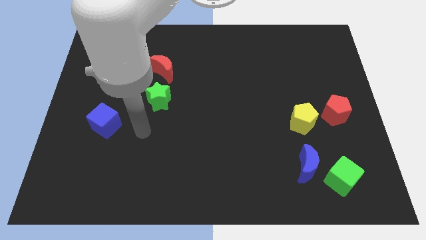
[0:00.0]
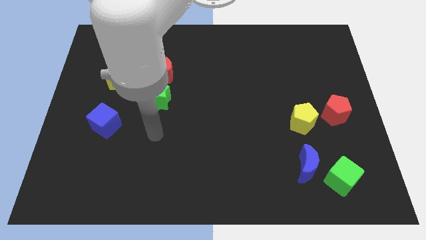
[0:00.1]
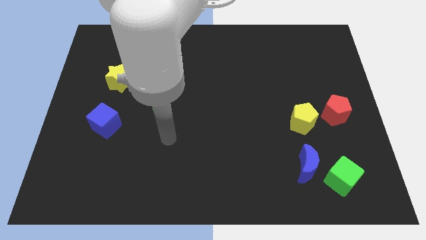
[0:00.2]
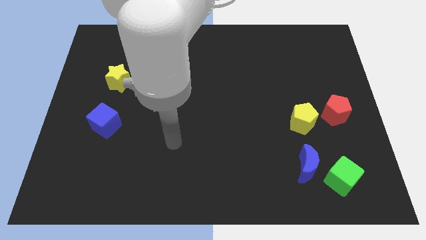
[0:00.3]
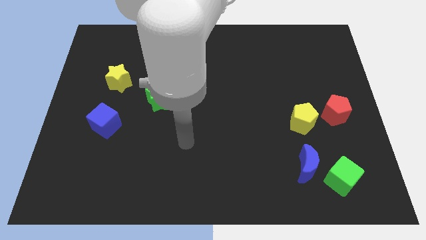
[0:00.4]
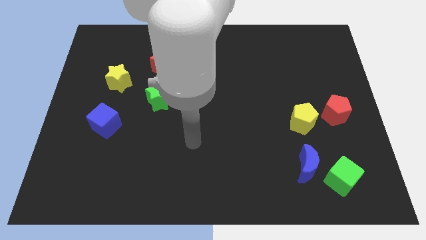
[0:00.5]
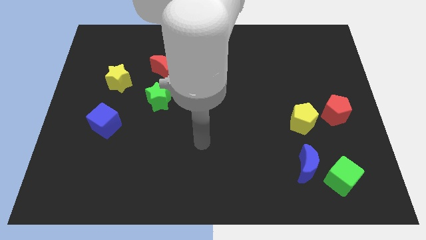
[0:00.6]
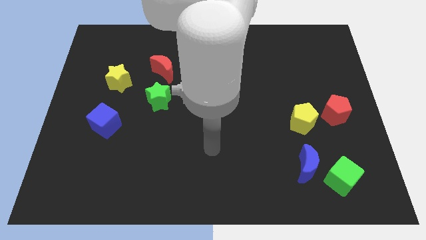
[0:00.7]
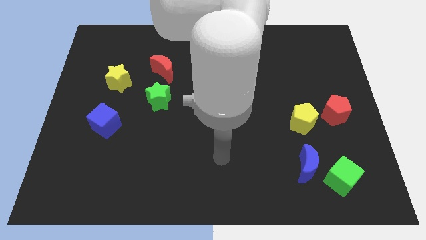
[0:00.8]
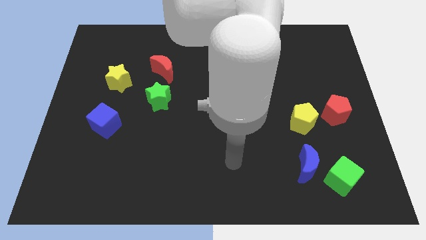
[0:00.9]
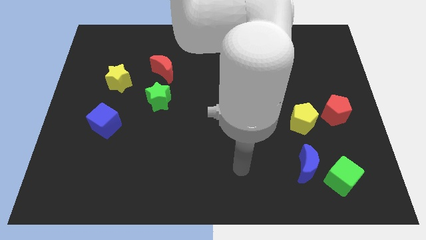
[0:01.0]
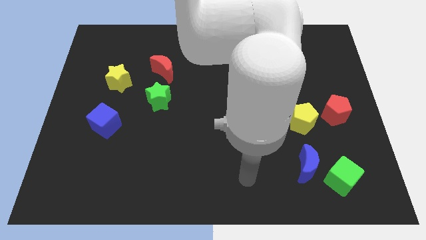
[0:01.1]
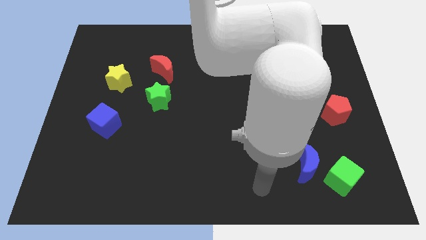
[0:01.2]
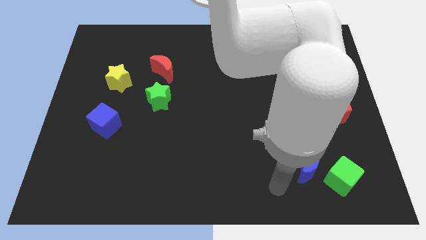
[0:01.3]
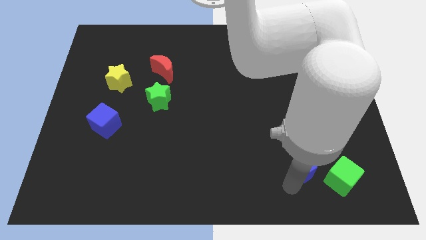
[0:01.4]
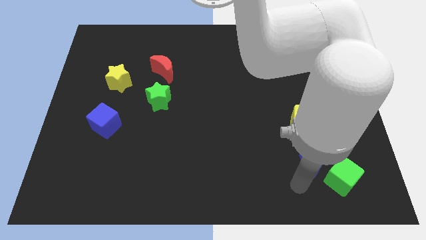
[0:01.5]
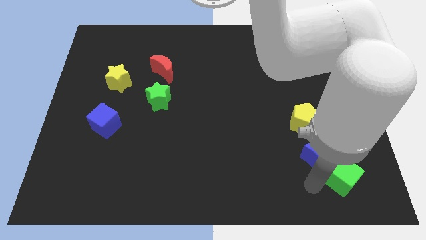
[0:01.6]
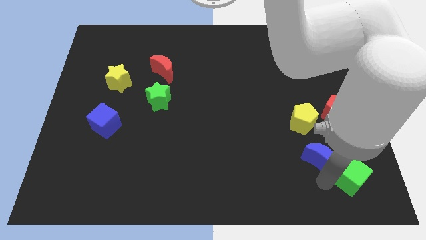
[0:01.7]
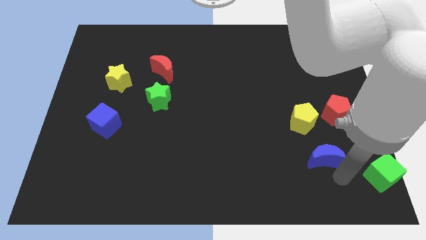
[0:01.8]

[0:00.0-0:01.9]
pull the blue moon apart from the green cube

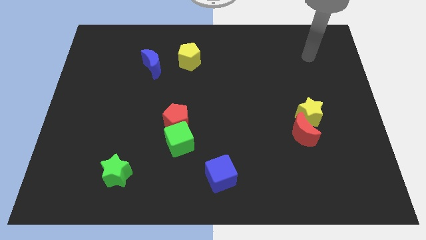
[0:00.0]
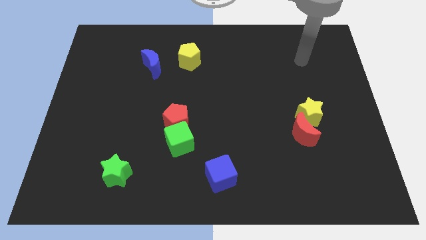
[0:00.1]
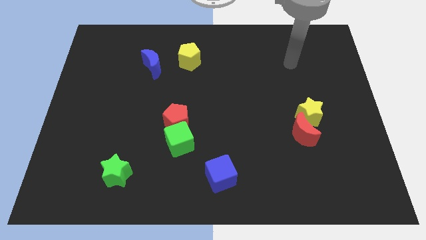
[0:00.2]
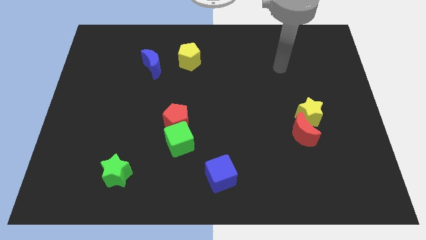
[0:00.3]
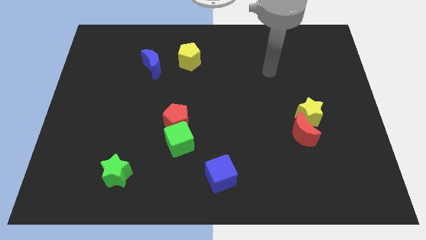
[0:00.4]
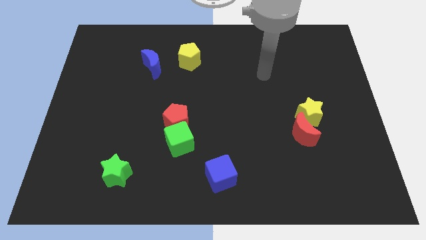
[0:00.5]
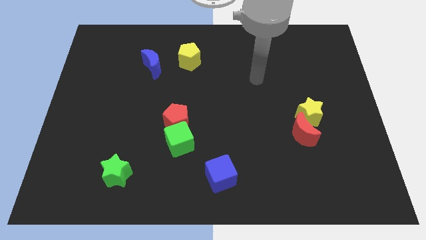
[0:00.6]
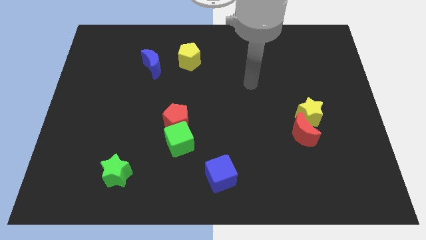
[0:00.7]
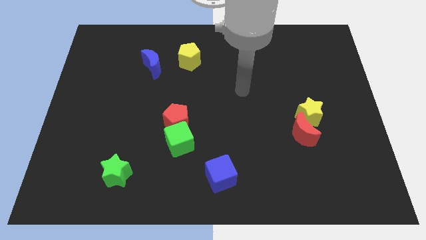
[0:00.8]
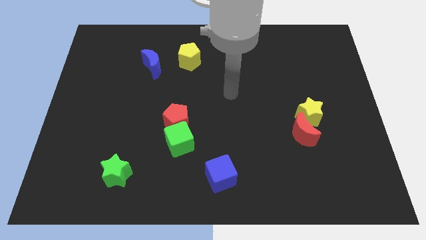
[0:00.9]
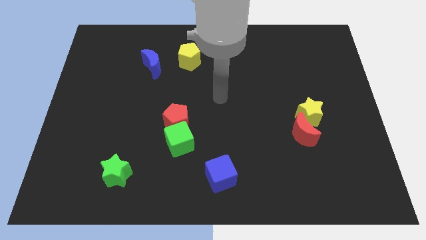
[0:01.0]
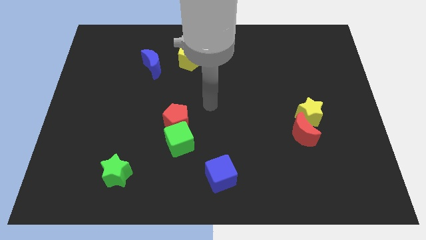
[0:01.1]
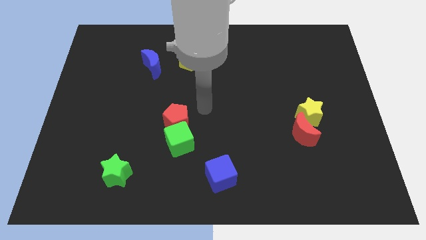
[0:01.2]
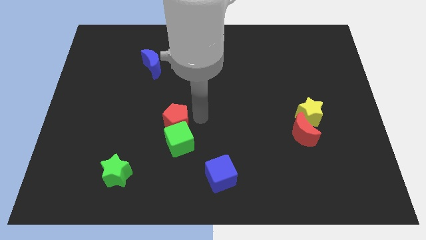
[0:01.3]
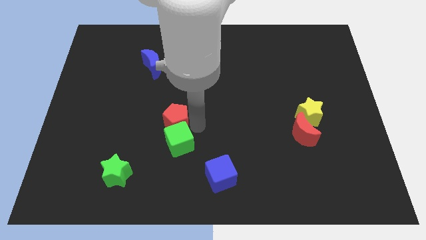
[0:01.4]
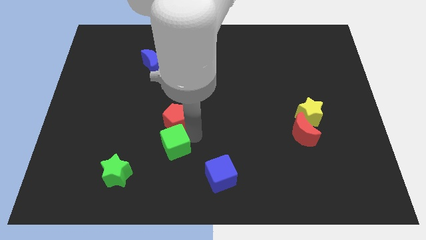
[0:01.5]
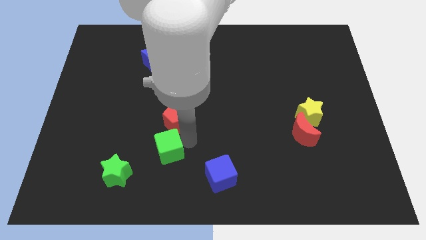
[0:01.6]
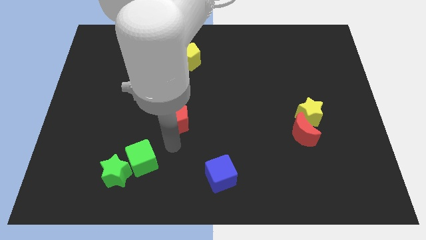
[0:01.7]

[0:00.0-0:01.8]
pull the red pentagon apart from the green cube

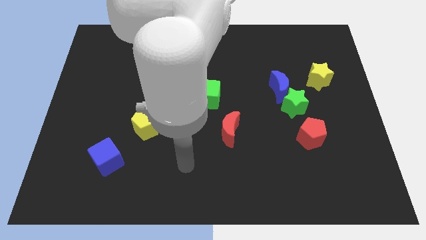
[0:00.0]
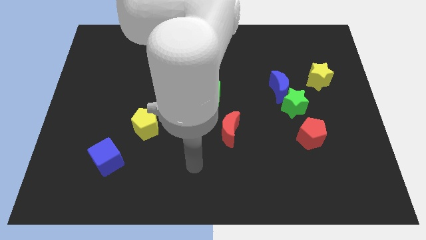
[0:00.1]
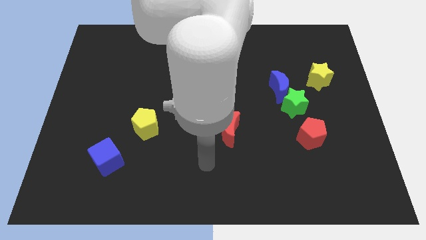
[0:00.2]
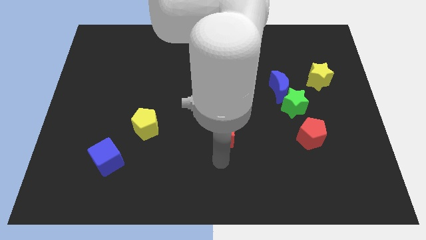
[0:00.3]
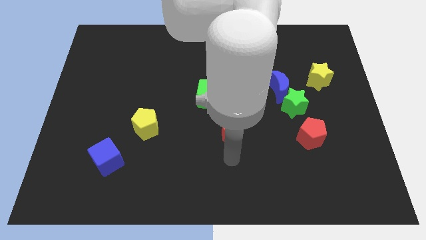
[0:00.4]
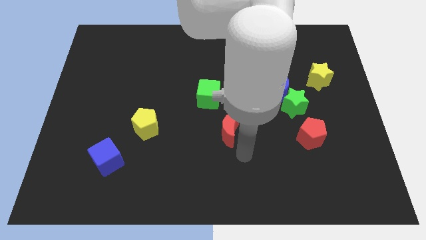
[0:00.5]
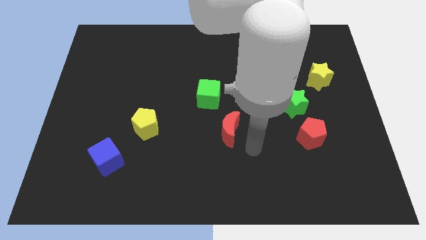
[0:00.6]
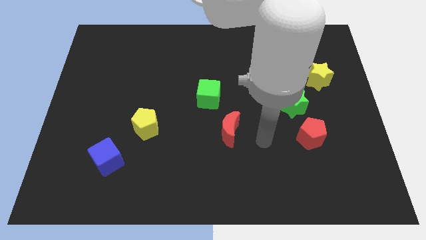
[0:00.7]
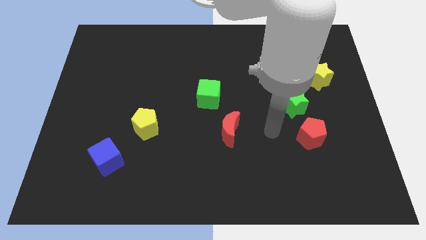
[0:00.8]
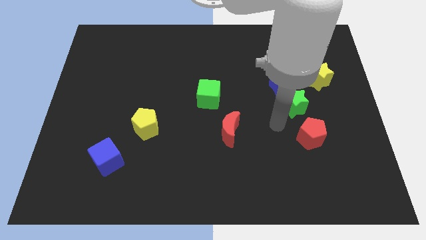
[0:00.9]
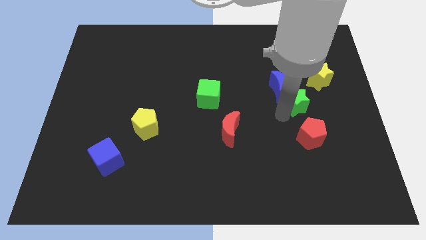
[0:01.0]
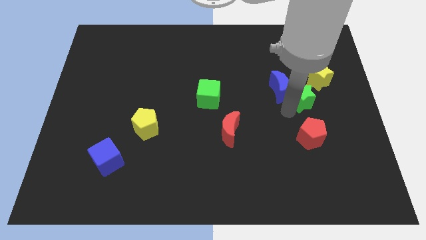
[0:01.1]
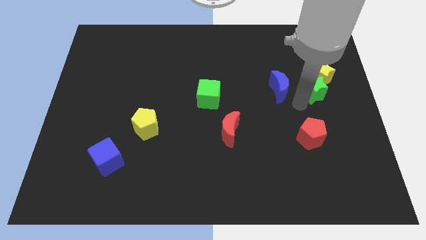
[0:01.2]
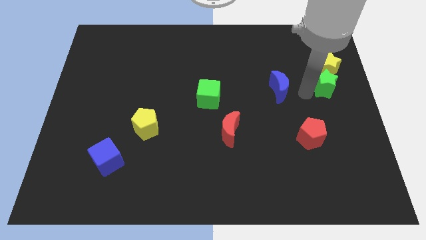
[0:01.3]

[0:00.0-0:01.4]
separate the blue moon from the green star

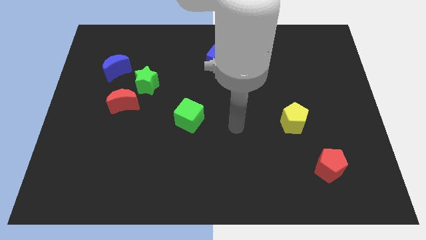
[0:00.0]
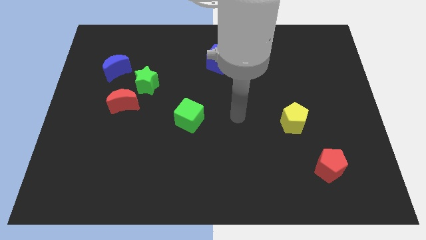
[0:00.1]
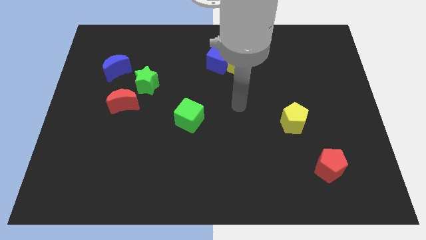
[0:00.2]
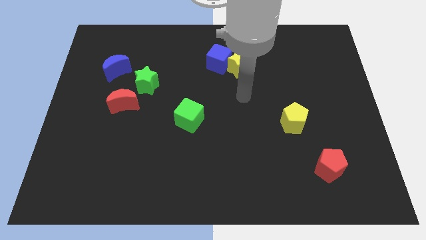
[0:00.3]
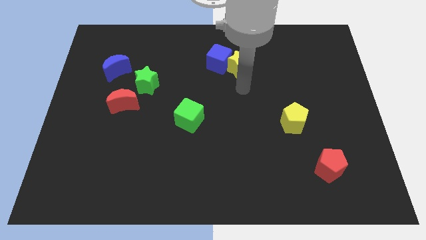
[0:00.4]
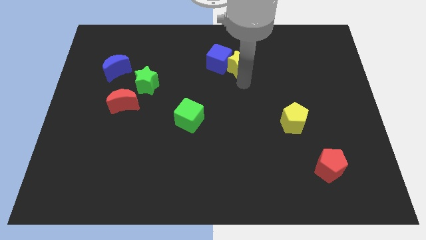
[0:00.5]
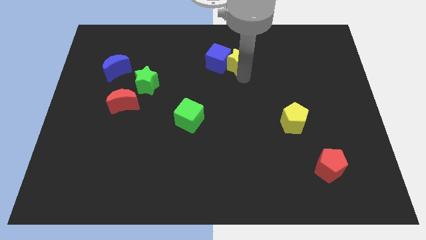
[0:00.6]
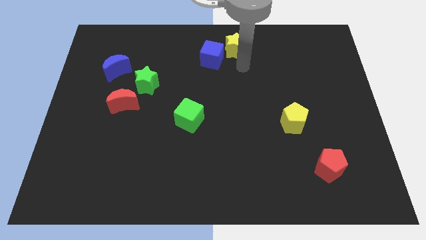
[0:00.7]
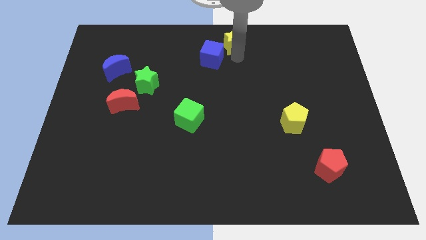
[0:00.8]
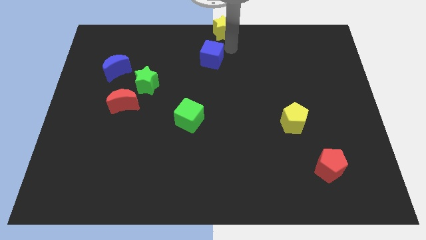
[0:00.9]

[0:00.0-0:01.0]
pull the blue cube apart from the yellow star

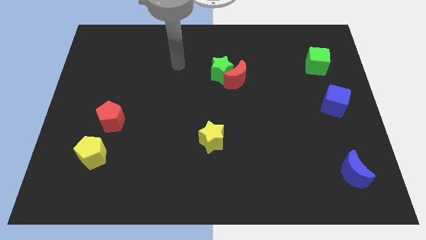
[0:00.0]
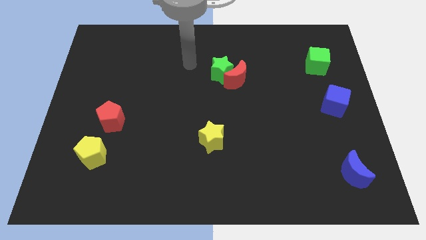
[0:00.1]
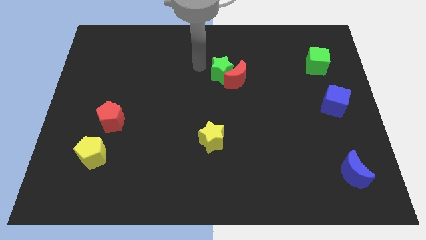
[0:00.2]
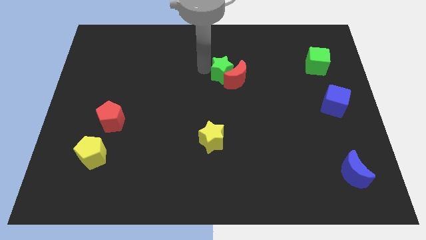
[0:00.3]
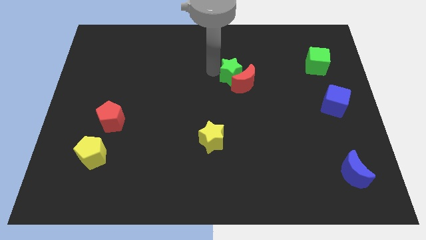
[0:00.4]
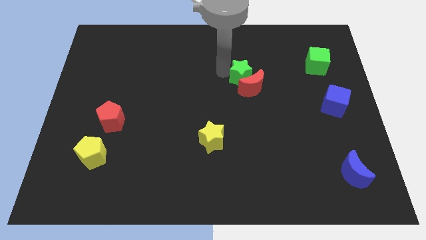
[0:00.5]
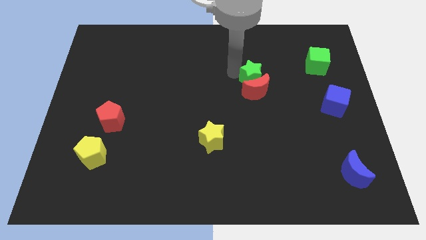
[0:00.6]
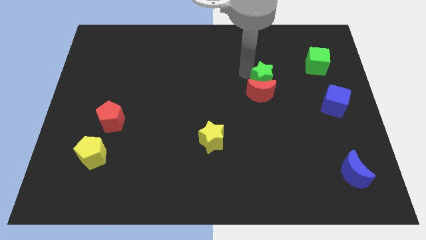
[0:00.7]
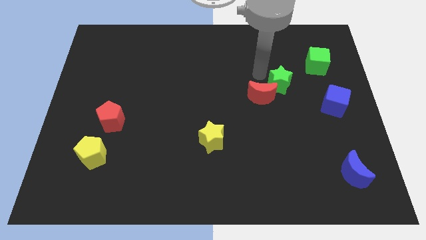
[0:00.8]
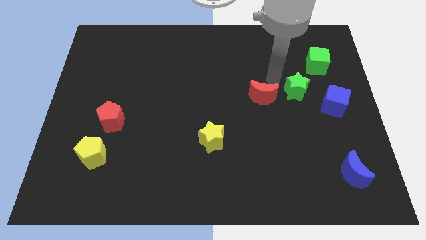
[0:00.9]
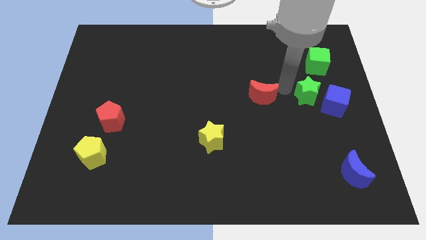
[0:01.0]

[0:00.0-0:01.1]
separate the red moon from the green star

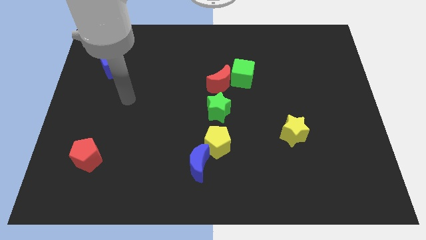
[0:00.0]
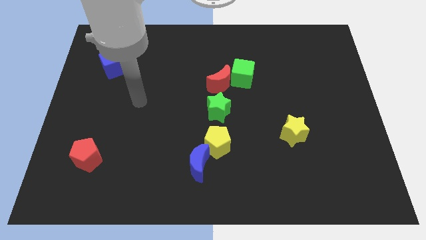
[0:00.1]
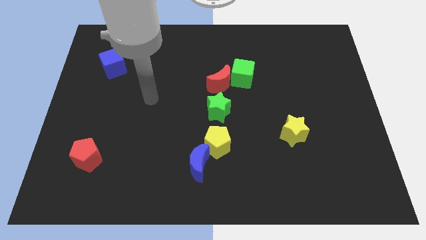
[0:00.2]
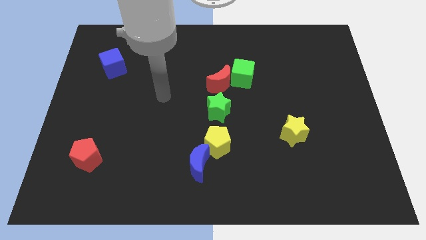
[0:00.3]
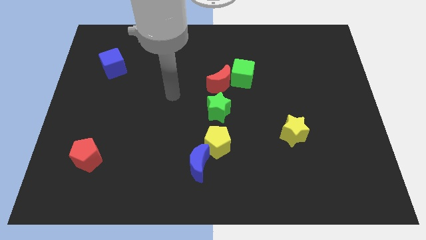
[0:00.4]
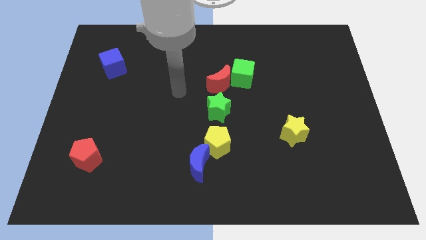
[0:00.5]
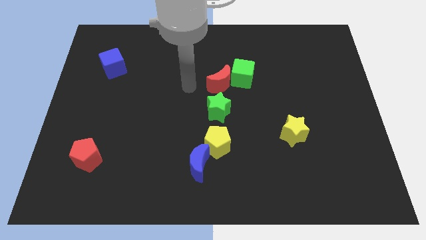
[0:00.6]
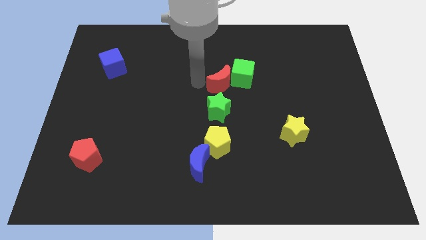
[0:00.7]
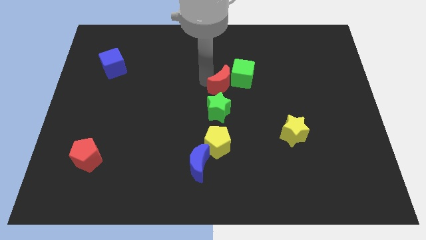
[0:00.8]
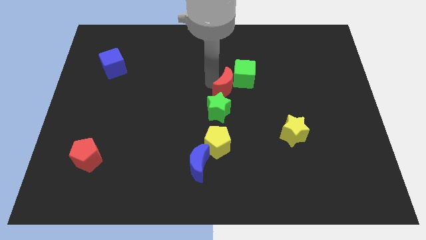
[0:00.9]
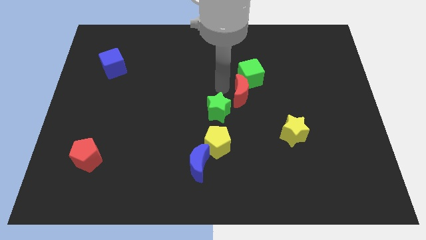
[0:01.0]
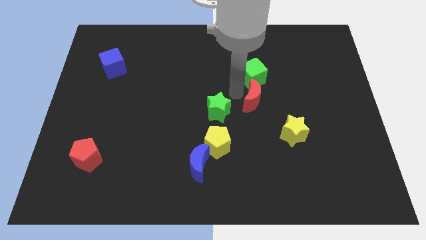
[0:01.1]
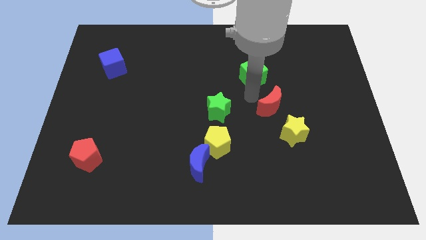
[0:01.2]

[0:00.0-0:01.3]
move the green cube away from the red moon

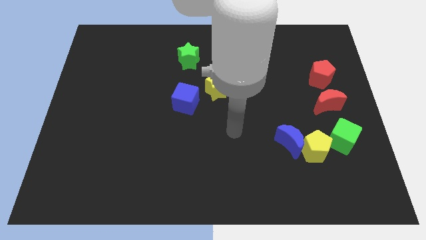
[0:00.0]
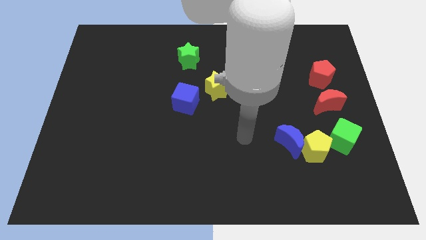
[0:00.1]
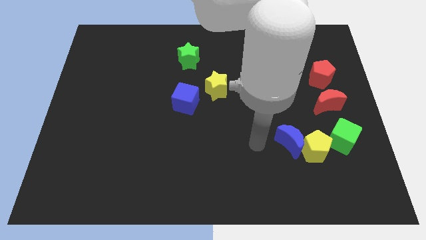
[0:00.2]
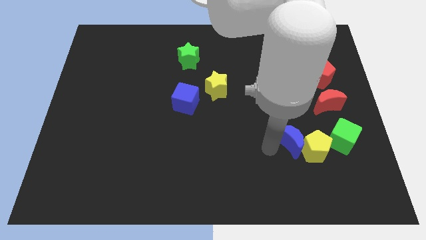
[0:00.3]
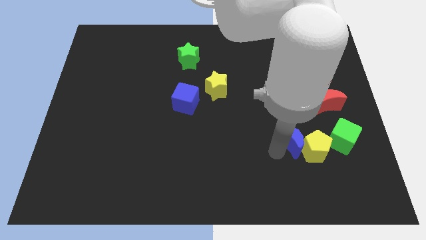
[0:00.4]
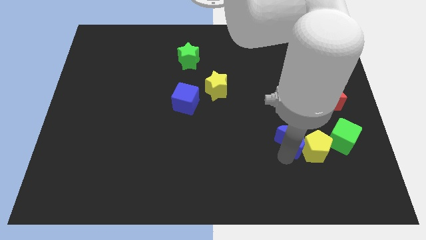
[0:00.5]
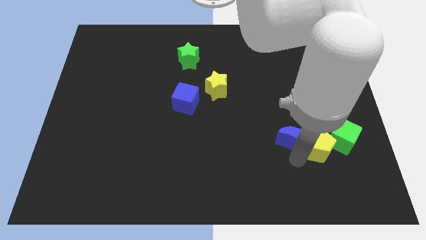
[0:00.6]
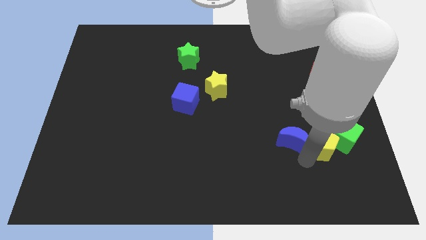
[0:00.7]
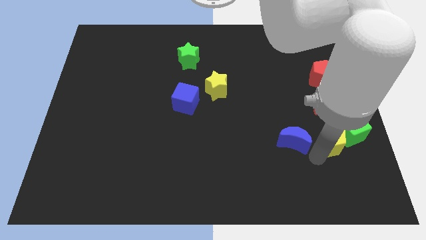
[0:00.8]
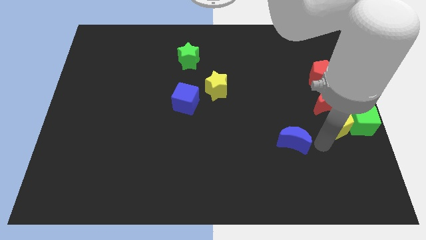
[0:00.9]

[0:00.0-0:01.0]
separate the blue moon from the yellow pentagon
